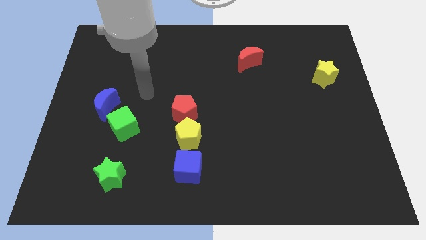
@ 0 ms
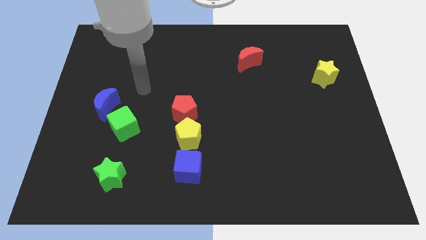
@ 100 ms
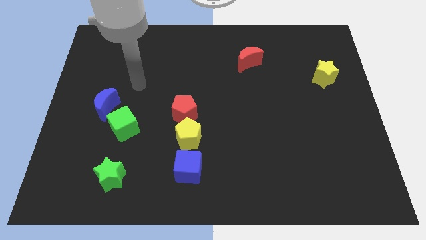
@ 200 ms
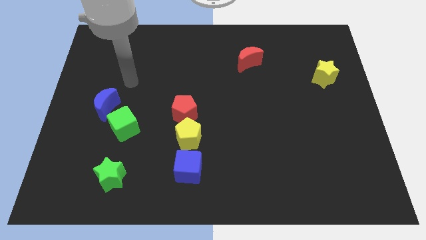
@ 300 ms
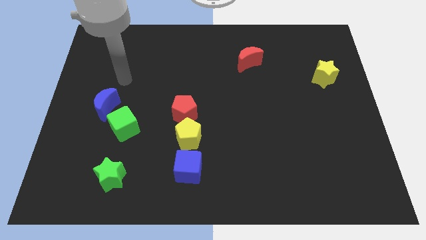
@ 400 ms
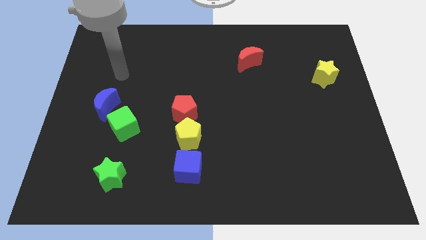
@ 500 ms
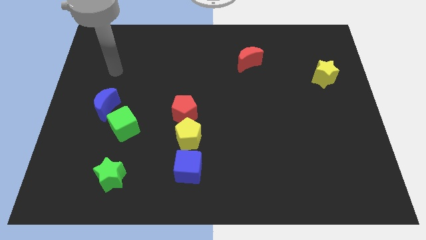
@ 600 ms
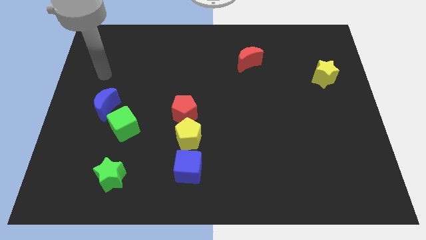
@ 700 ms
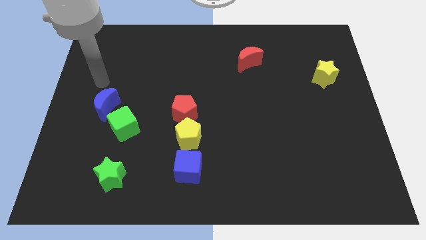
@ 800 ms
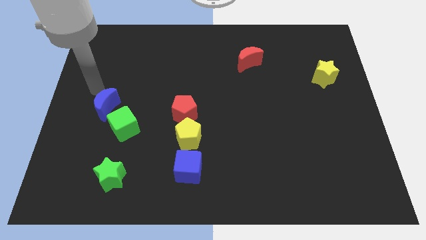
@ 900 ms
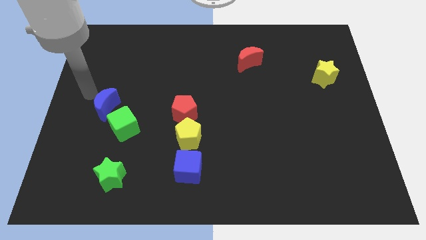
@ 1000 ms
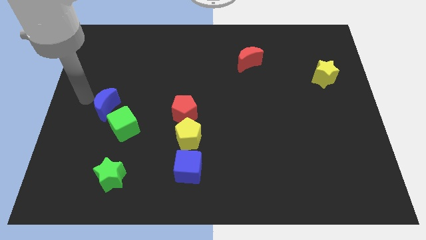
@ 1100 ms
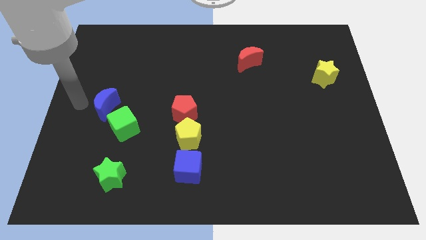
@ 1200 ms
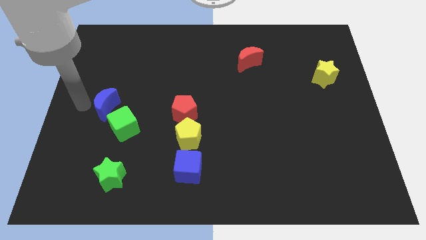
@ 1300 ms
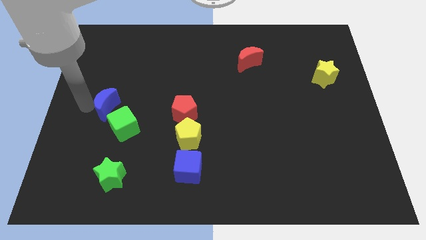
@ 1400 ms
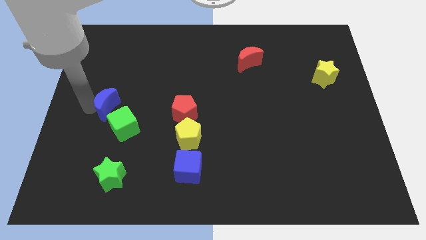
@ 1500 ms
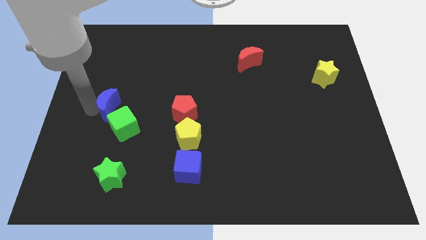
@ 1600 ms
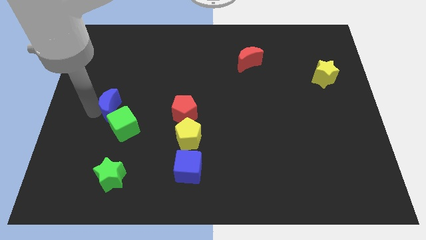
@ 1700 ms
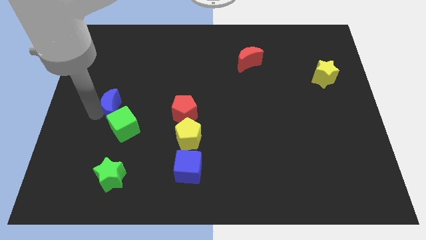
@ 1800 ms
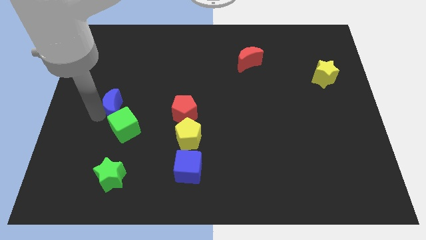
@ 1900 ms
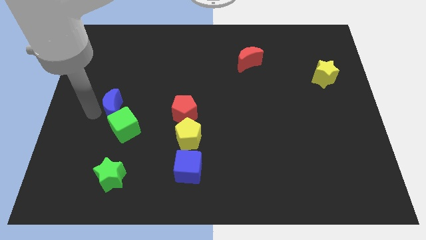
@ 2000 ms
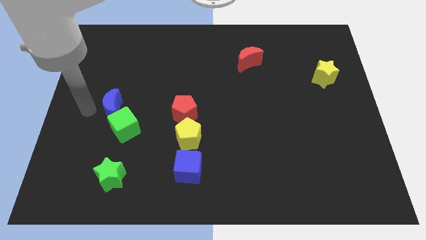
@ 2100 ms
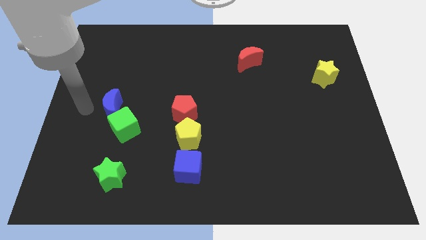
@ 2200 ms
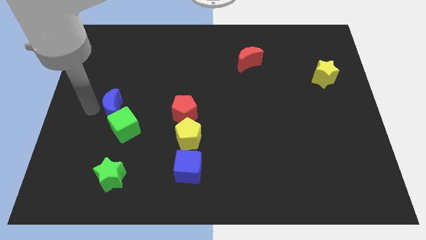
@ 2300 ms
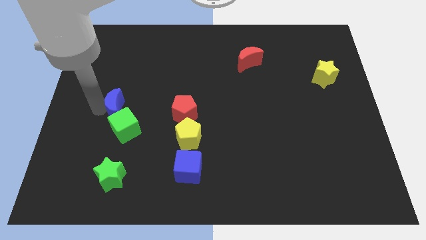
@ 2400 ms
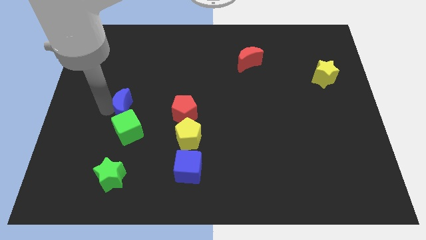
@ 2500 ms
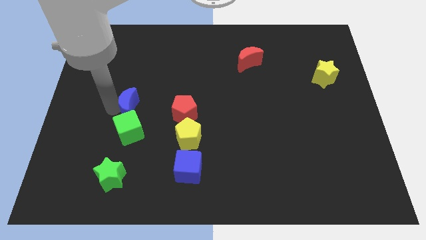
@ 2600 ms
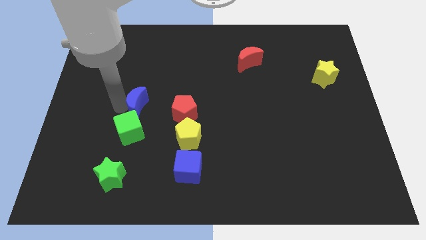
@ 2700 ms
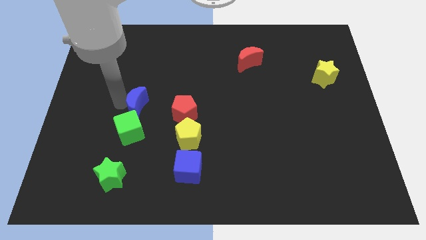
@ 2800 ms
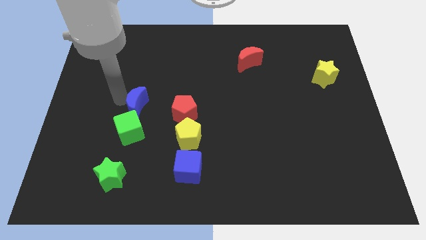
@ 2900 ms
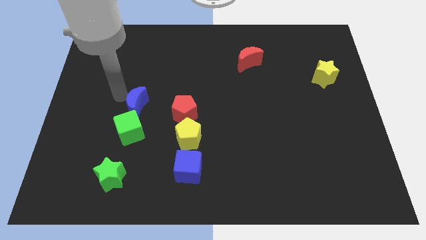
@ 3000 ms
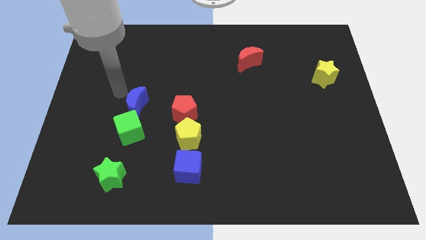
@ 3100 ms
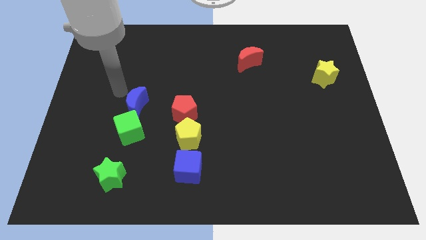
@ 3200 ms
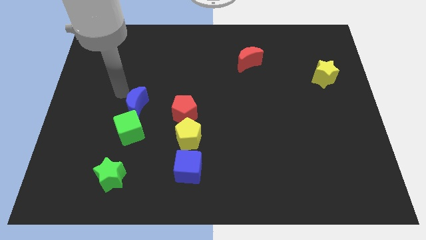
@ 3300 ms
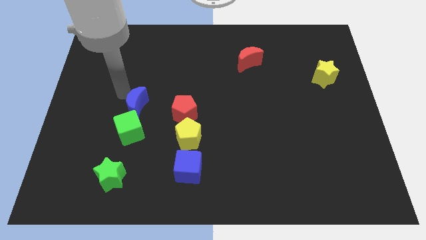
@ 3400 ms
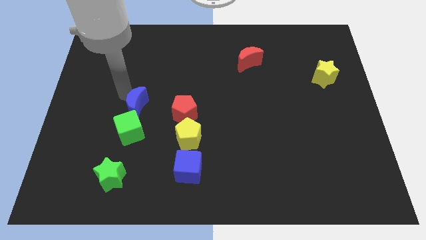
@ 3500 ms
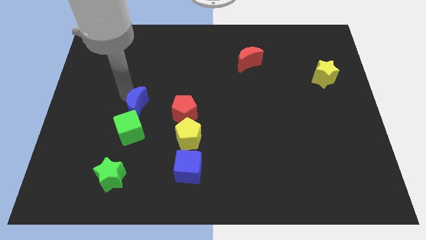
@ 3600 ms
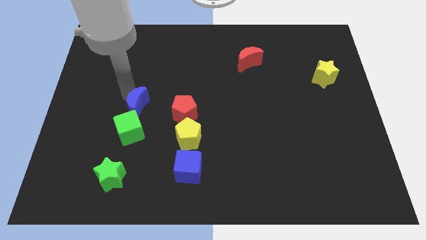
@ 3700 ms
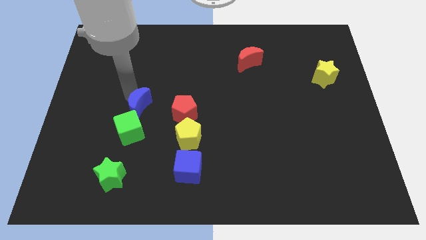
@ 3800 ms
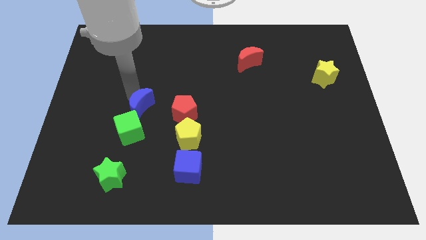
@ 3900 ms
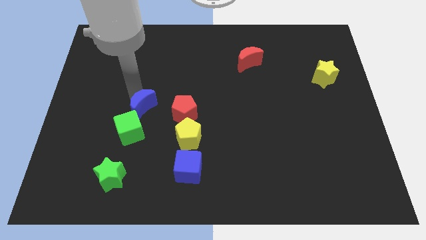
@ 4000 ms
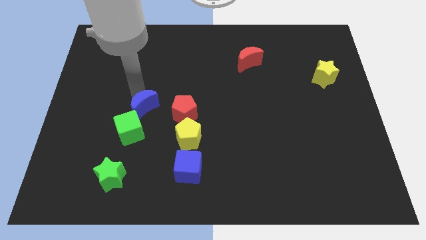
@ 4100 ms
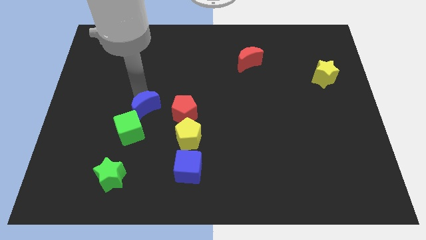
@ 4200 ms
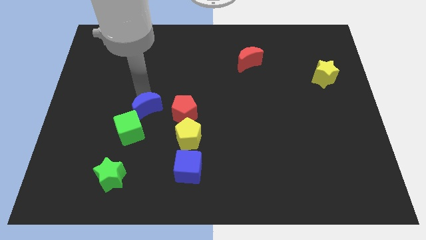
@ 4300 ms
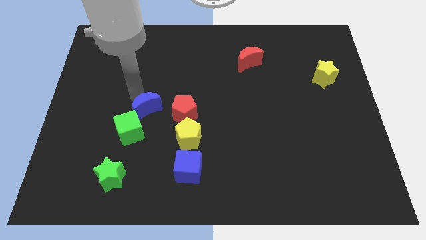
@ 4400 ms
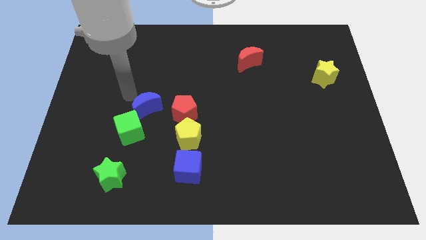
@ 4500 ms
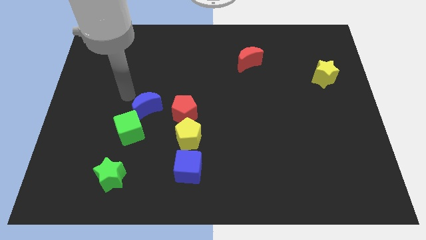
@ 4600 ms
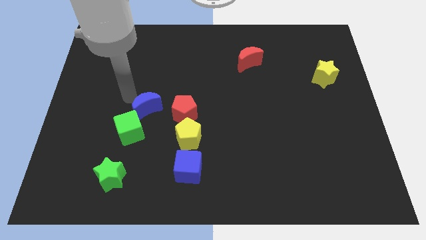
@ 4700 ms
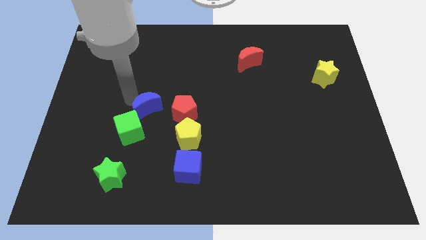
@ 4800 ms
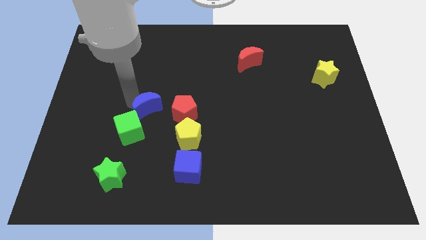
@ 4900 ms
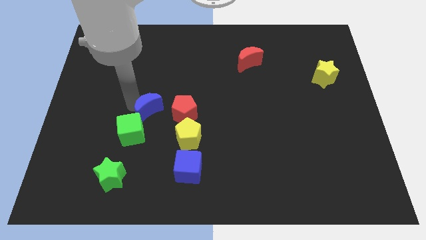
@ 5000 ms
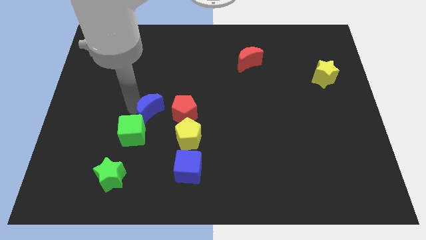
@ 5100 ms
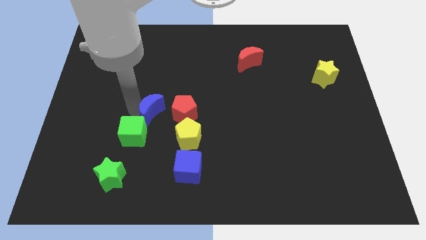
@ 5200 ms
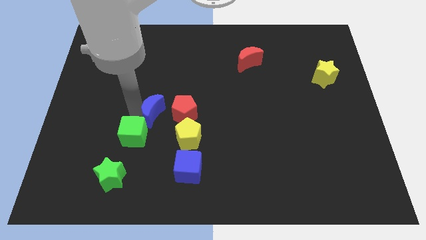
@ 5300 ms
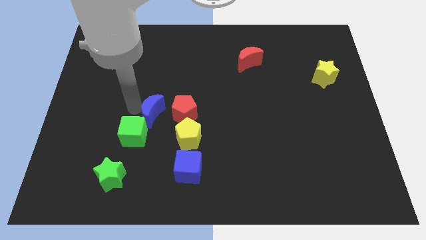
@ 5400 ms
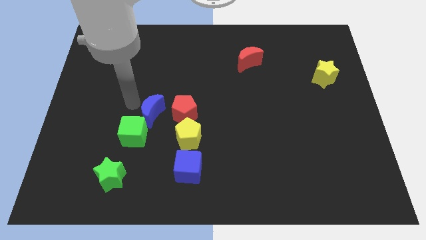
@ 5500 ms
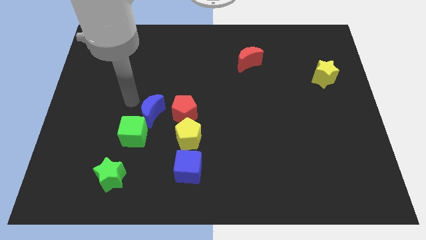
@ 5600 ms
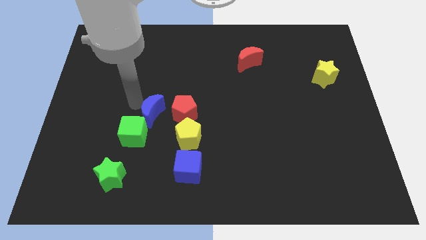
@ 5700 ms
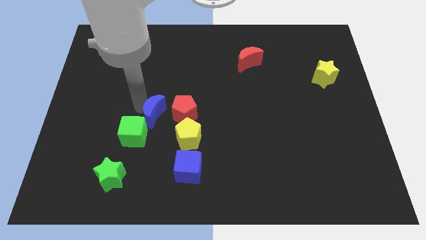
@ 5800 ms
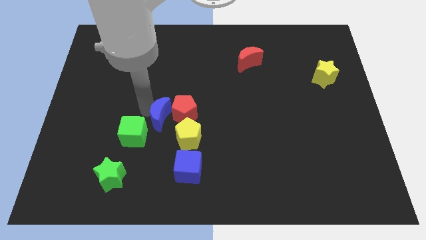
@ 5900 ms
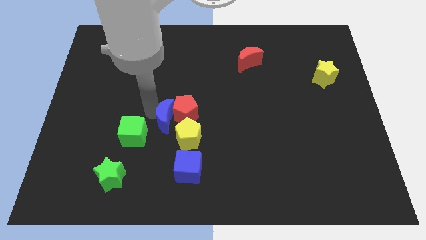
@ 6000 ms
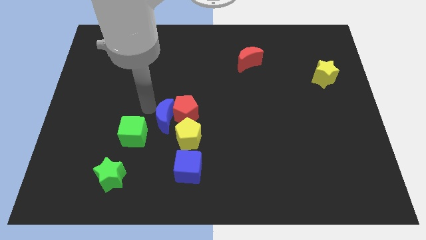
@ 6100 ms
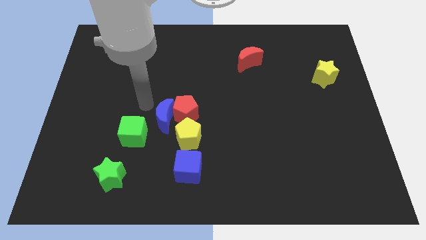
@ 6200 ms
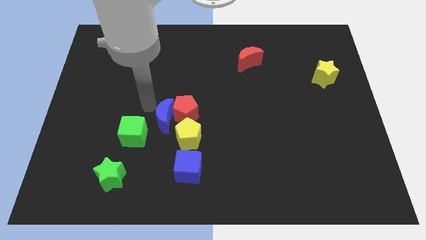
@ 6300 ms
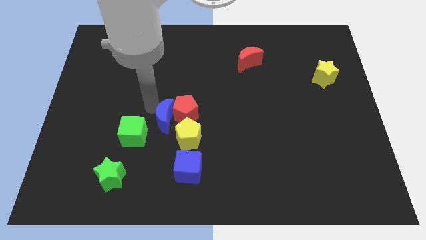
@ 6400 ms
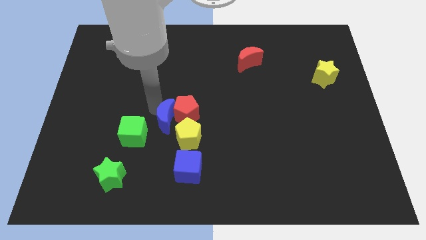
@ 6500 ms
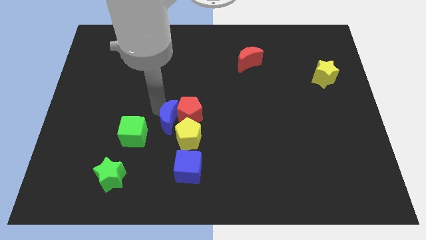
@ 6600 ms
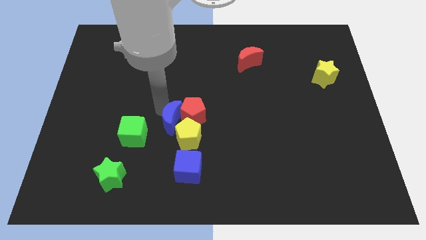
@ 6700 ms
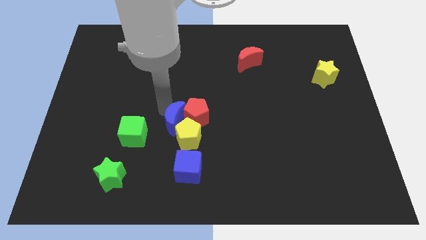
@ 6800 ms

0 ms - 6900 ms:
move the blue moon to the yellow pentagon
